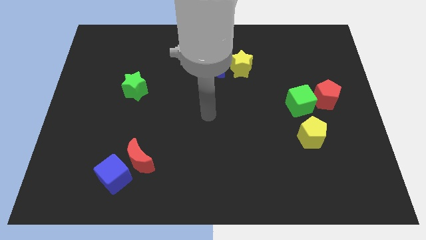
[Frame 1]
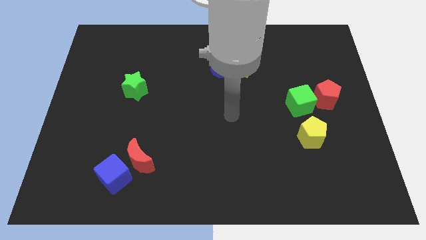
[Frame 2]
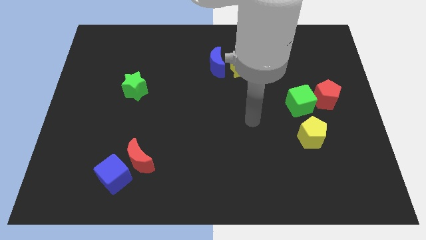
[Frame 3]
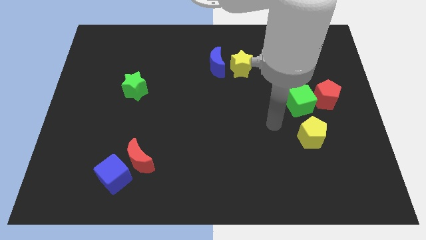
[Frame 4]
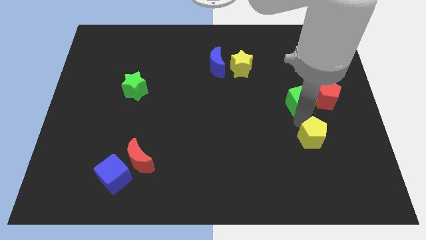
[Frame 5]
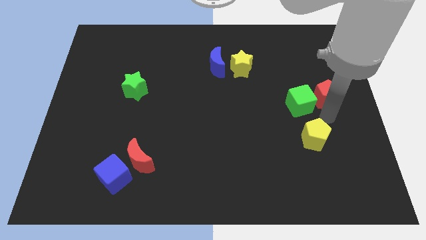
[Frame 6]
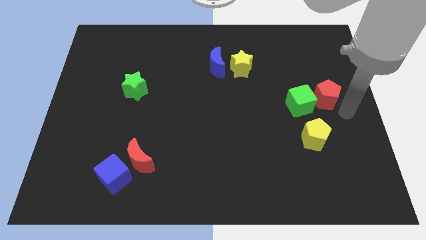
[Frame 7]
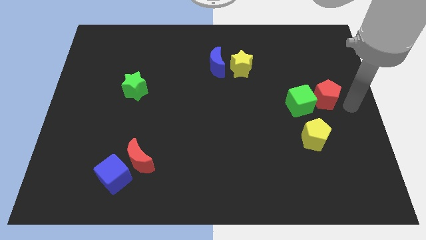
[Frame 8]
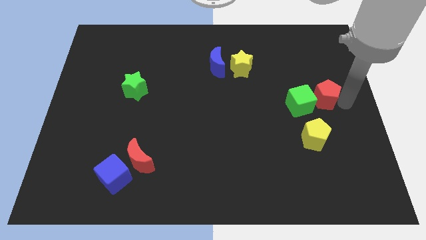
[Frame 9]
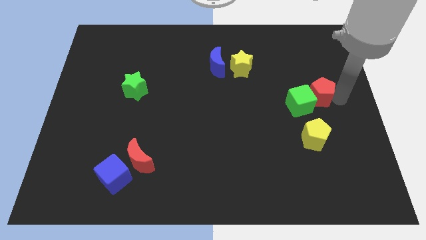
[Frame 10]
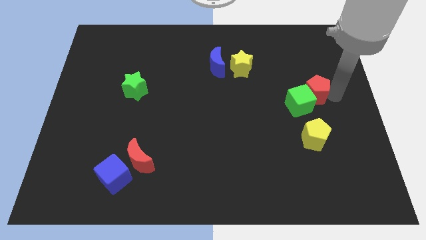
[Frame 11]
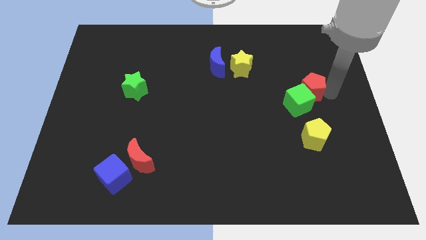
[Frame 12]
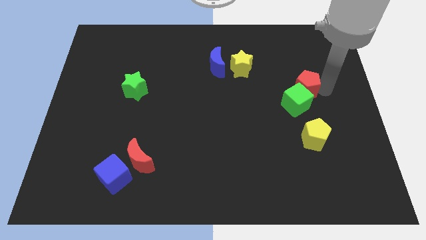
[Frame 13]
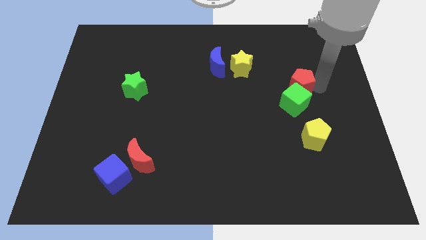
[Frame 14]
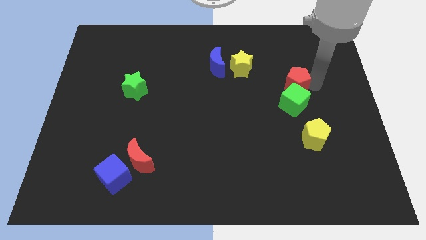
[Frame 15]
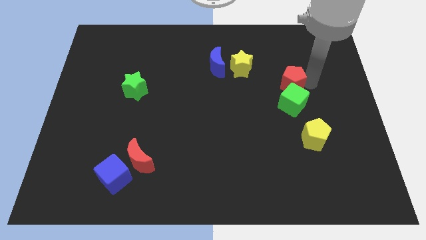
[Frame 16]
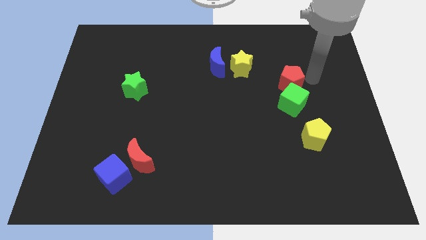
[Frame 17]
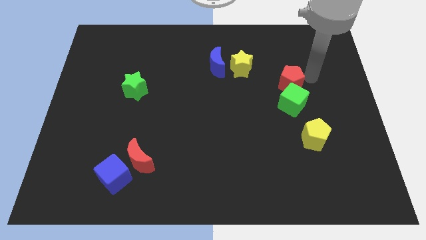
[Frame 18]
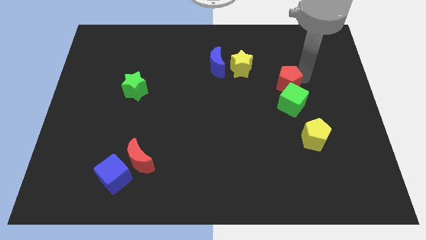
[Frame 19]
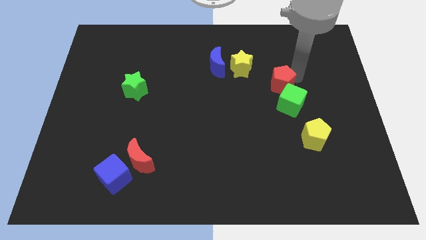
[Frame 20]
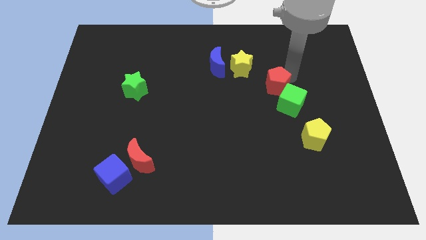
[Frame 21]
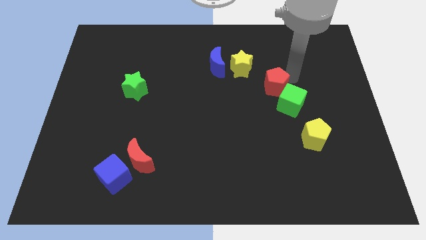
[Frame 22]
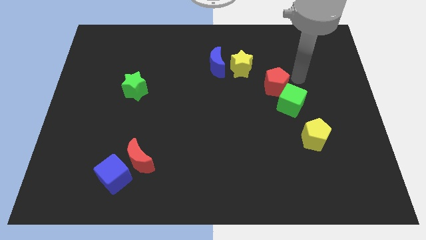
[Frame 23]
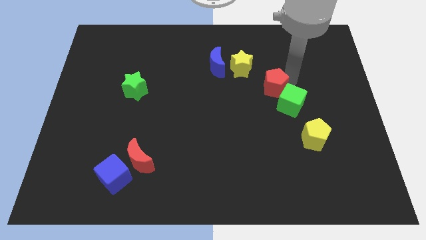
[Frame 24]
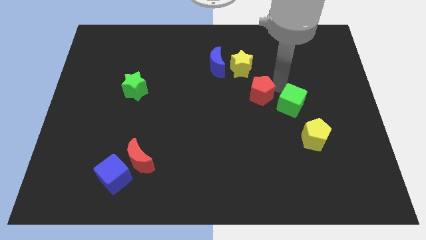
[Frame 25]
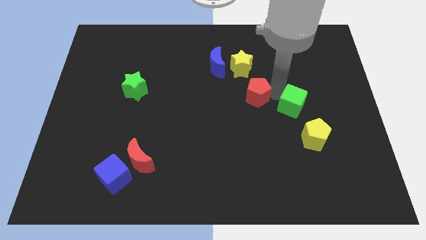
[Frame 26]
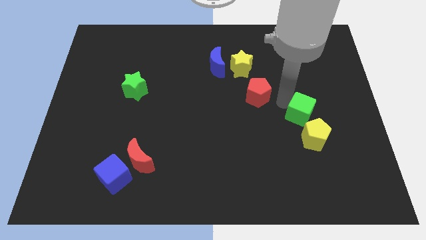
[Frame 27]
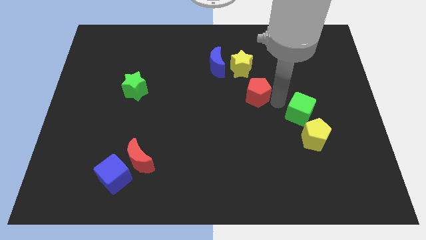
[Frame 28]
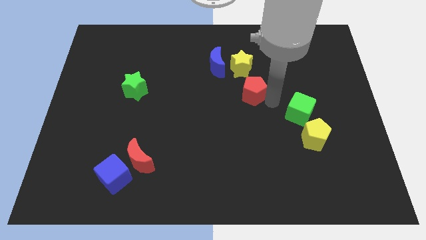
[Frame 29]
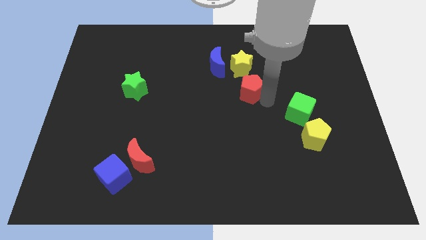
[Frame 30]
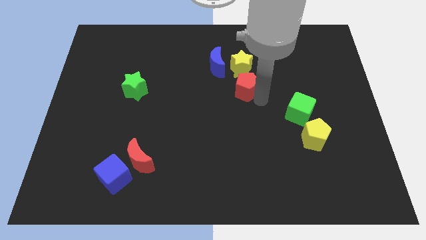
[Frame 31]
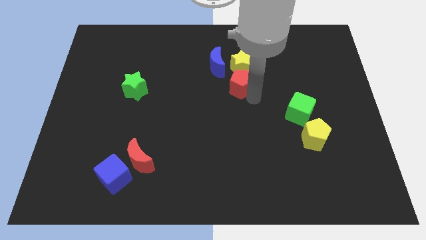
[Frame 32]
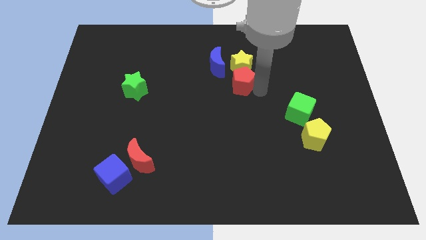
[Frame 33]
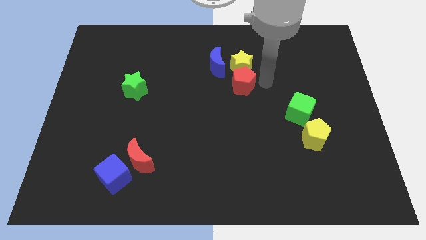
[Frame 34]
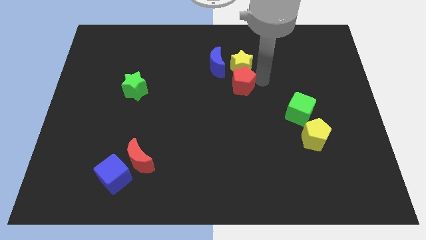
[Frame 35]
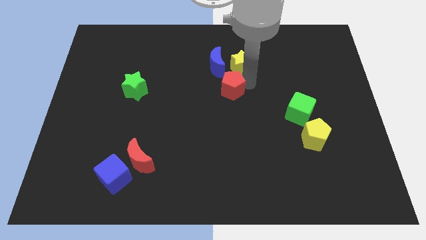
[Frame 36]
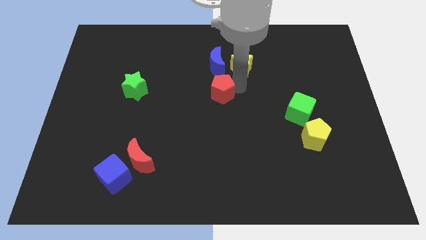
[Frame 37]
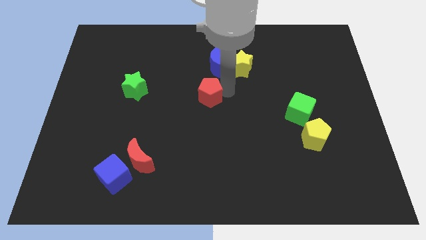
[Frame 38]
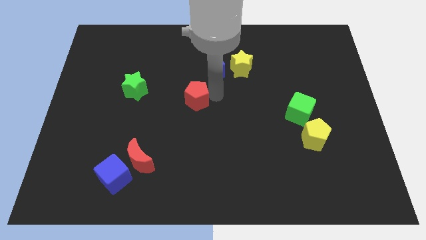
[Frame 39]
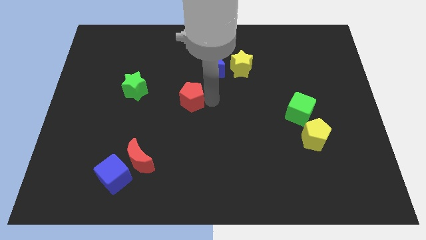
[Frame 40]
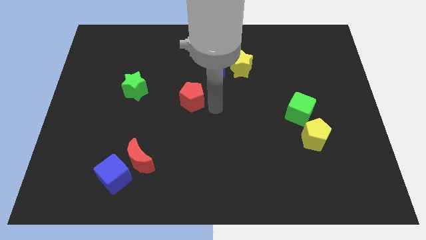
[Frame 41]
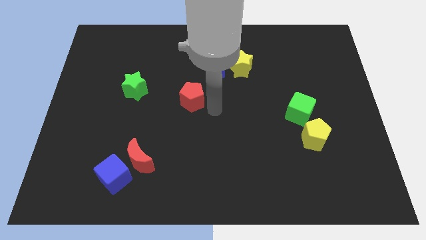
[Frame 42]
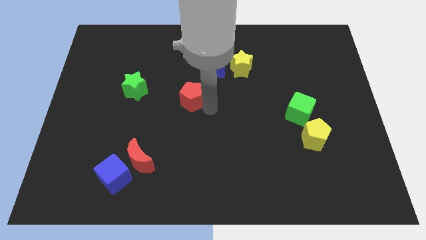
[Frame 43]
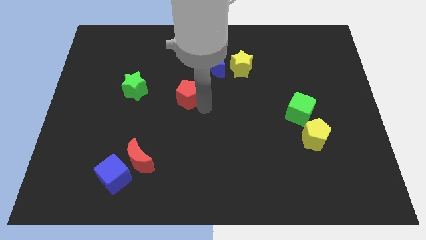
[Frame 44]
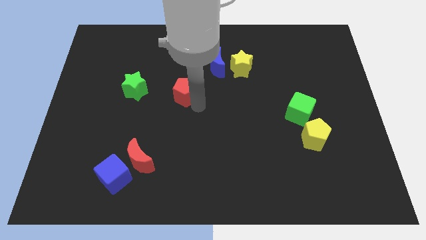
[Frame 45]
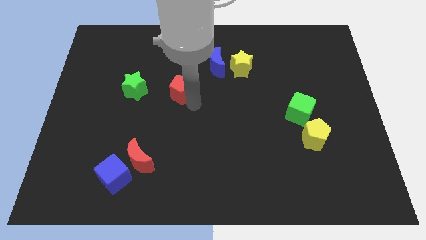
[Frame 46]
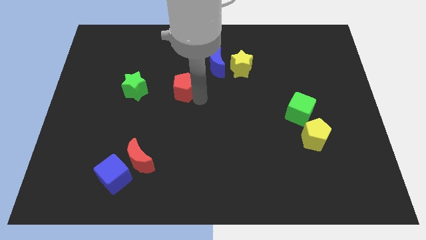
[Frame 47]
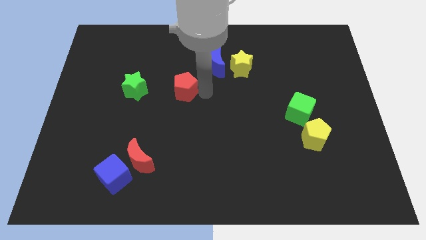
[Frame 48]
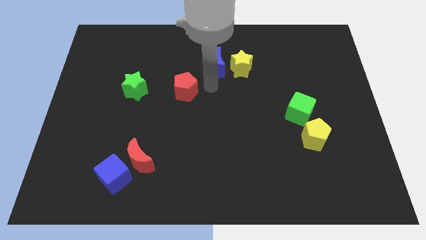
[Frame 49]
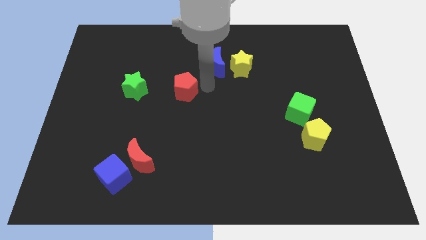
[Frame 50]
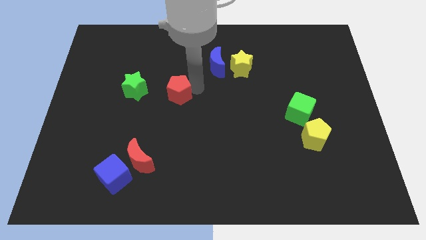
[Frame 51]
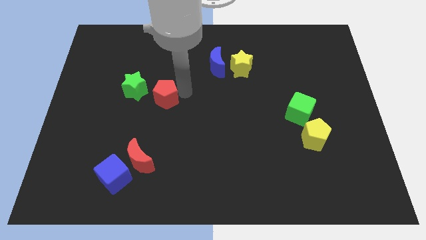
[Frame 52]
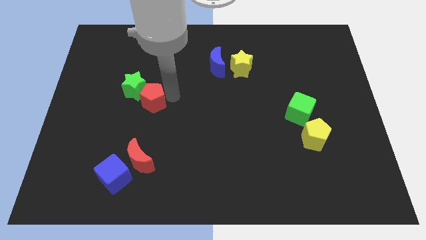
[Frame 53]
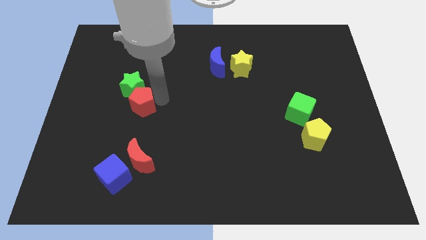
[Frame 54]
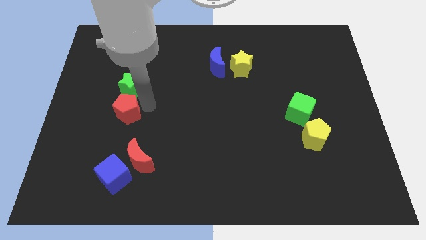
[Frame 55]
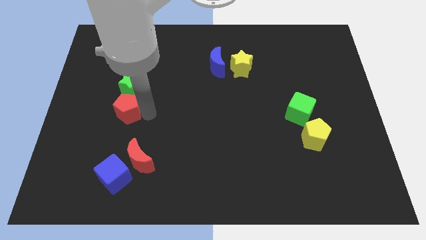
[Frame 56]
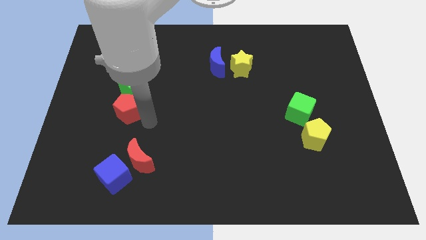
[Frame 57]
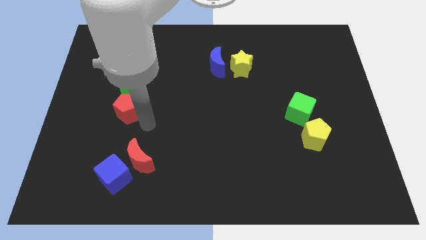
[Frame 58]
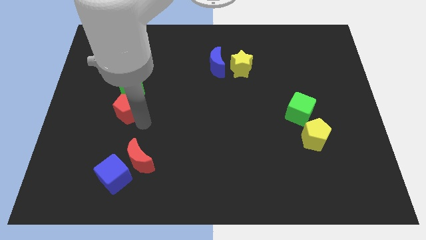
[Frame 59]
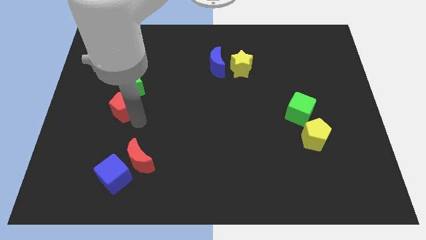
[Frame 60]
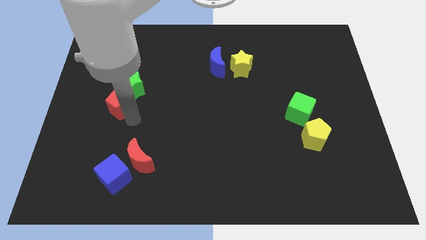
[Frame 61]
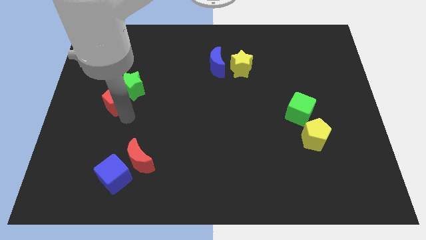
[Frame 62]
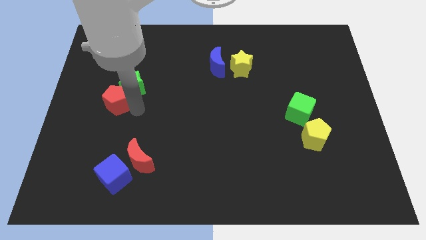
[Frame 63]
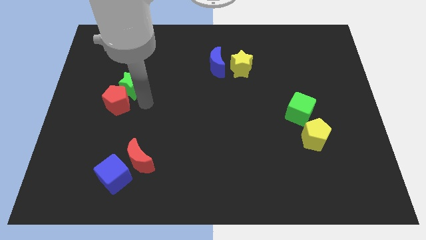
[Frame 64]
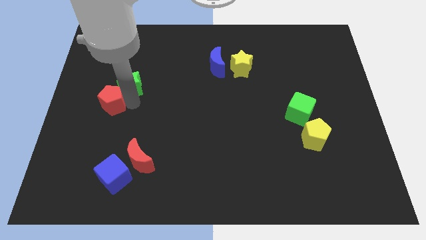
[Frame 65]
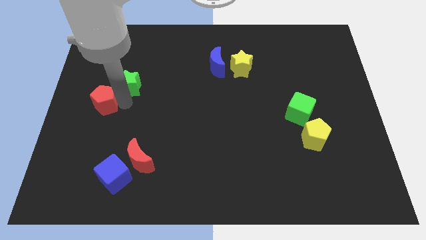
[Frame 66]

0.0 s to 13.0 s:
slide the red pentagon to the center left
